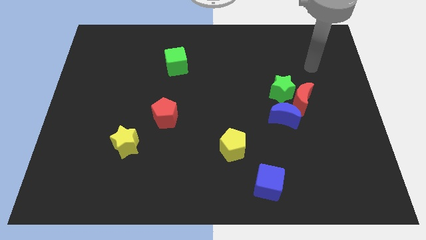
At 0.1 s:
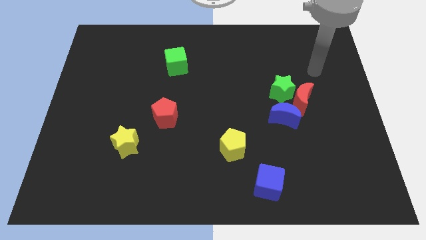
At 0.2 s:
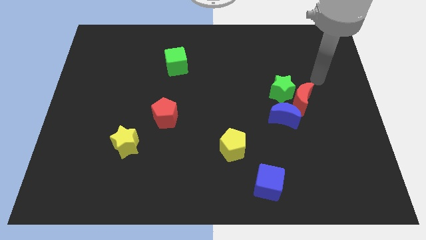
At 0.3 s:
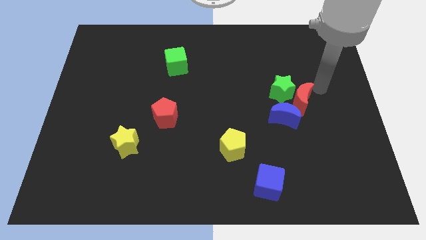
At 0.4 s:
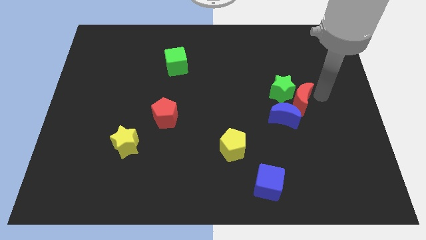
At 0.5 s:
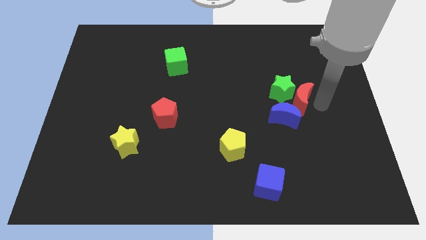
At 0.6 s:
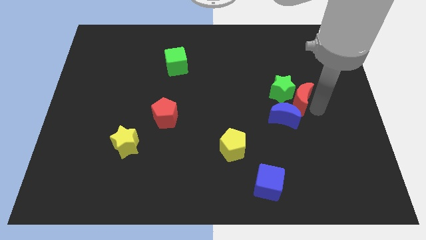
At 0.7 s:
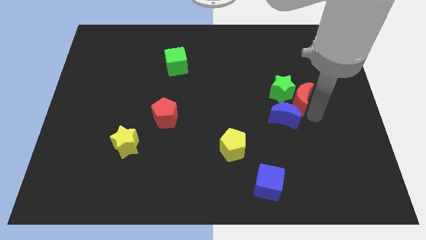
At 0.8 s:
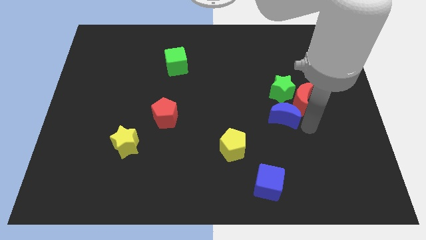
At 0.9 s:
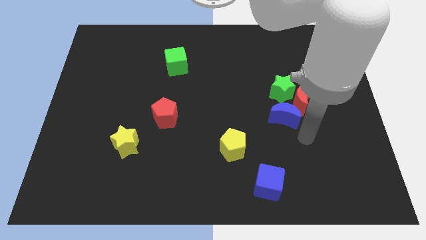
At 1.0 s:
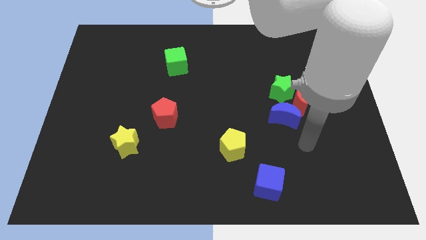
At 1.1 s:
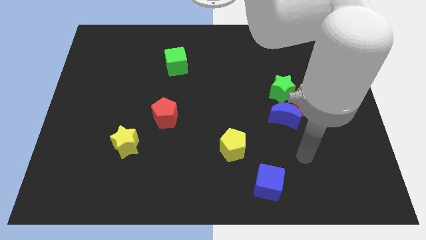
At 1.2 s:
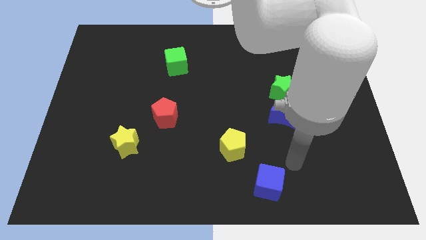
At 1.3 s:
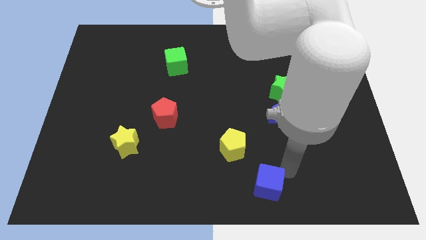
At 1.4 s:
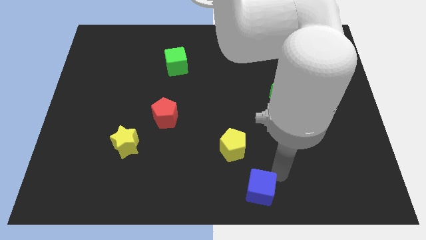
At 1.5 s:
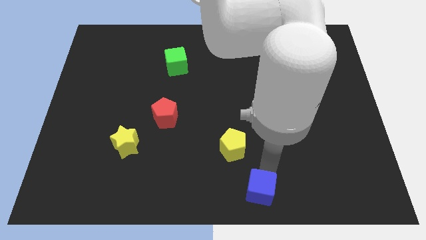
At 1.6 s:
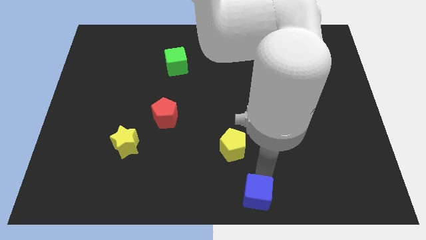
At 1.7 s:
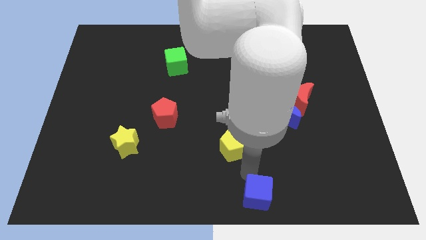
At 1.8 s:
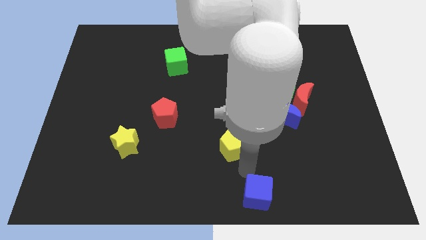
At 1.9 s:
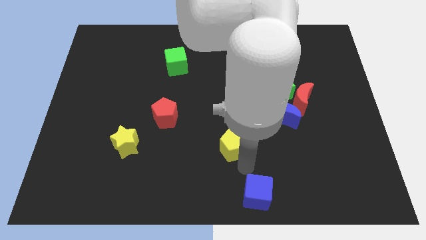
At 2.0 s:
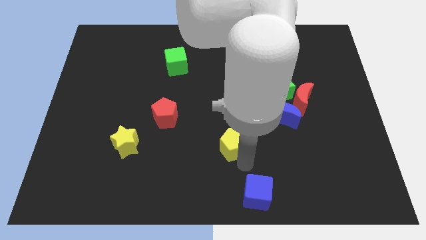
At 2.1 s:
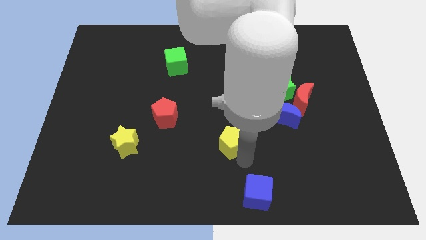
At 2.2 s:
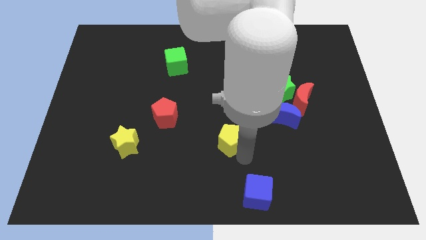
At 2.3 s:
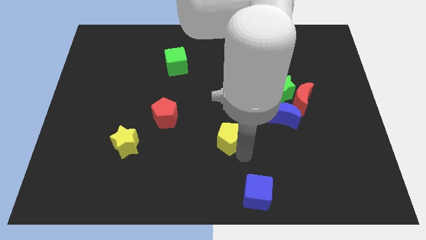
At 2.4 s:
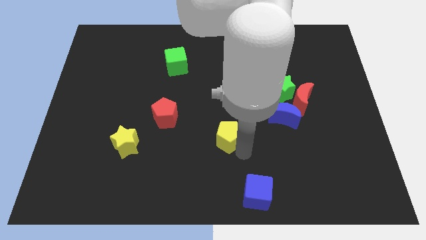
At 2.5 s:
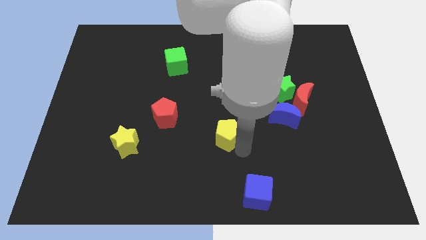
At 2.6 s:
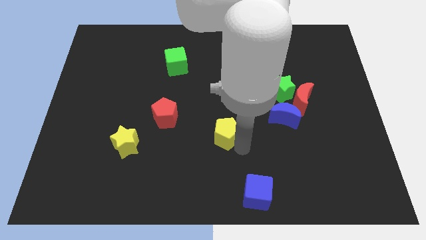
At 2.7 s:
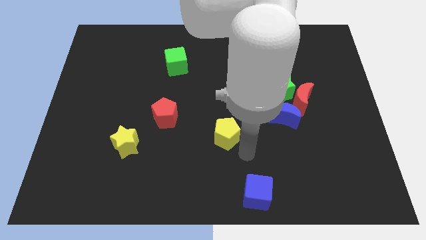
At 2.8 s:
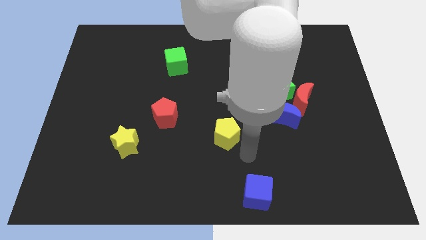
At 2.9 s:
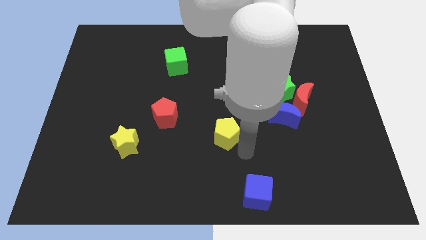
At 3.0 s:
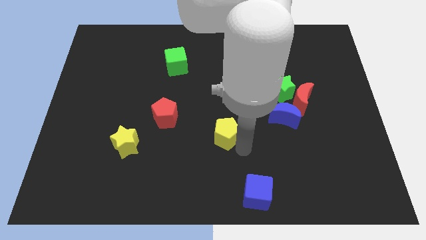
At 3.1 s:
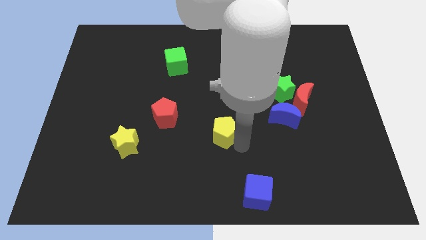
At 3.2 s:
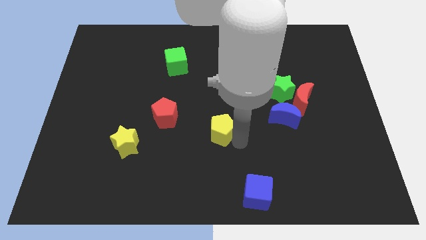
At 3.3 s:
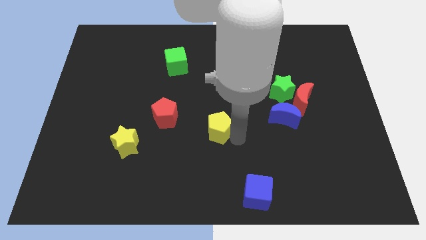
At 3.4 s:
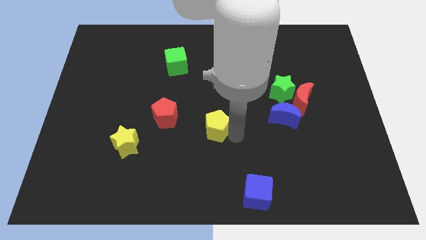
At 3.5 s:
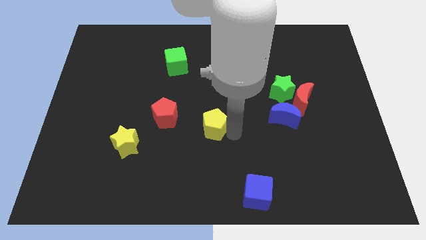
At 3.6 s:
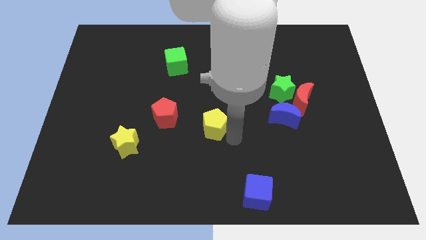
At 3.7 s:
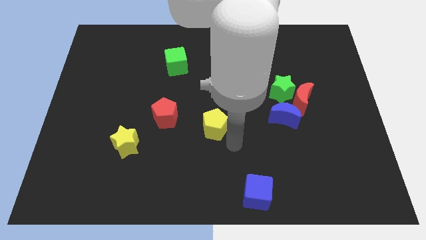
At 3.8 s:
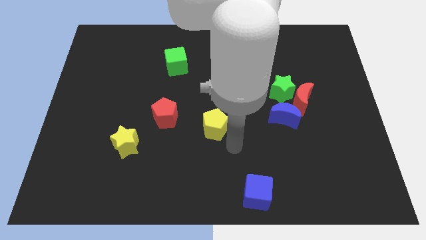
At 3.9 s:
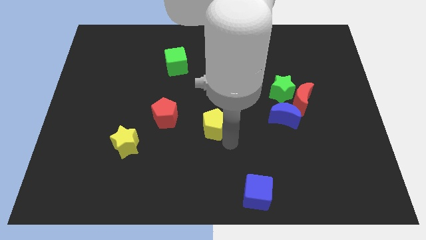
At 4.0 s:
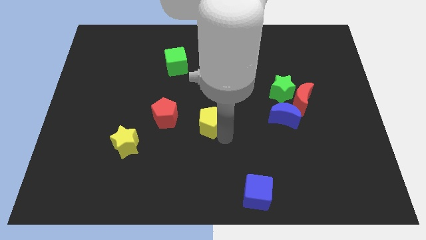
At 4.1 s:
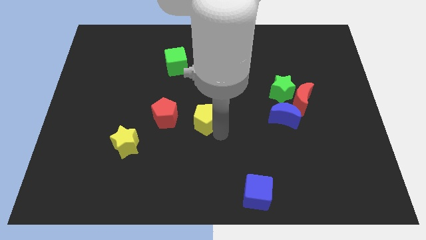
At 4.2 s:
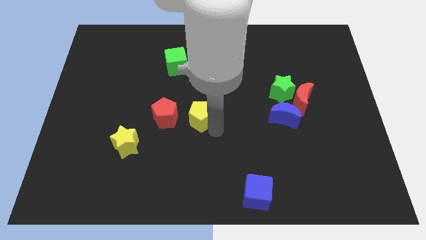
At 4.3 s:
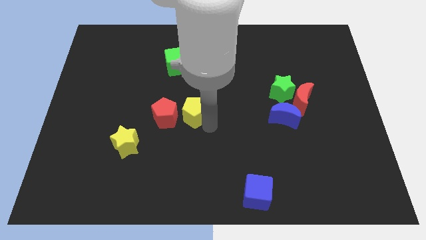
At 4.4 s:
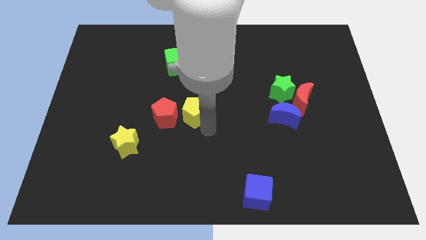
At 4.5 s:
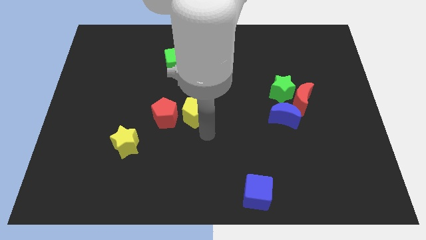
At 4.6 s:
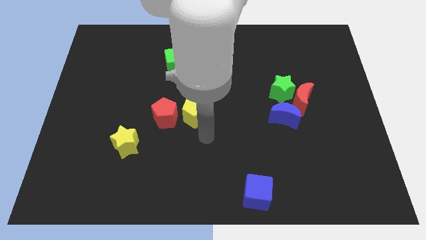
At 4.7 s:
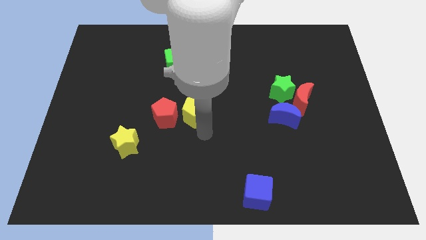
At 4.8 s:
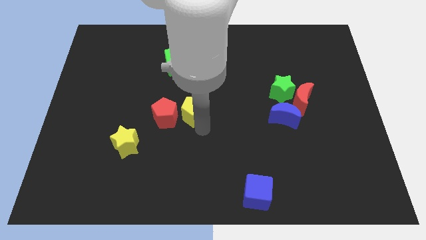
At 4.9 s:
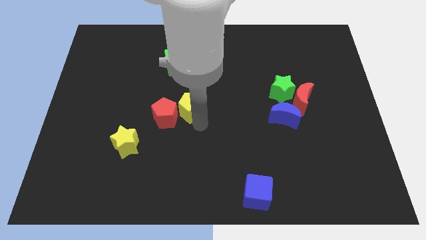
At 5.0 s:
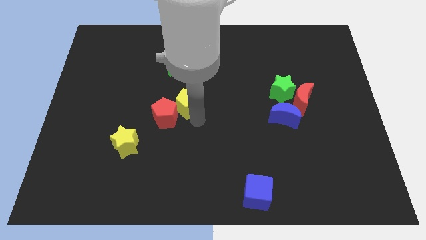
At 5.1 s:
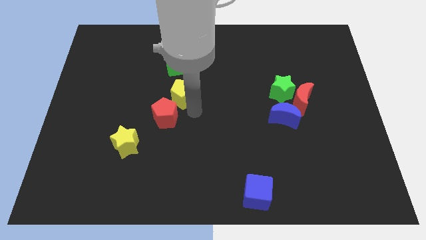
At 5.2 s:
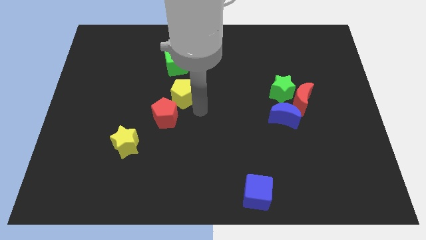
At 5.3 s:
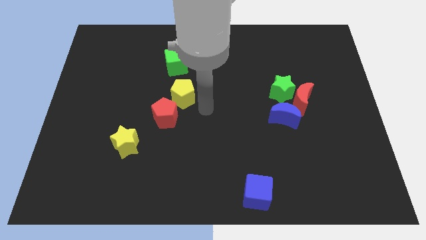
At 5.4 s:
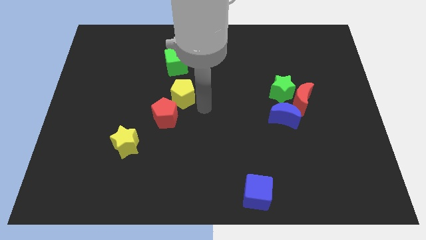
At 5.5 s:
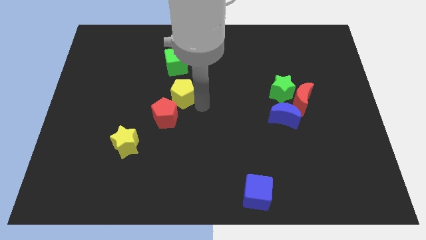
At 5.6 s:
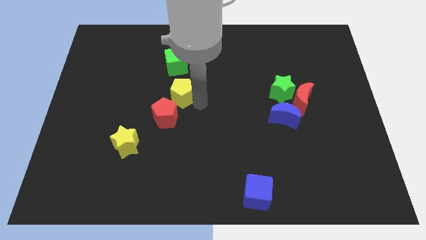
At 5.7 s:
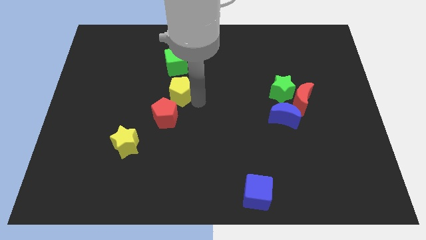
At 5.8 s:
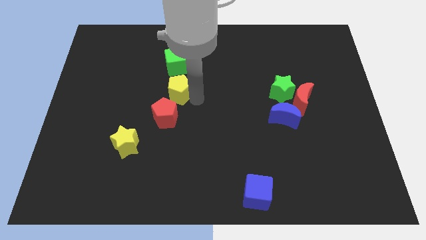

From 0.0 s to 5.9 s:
push the yellow pentagon diagonally up and to the left

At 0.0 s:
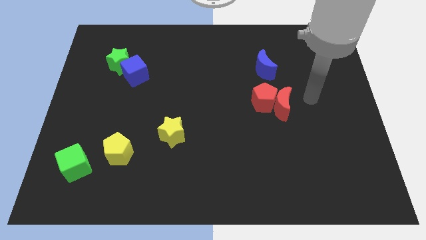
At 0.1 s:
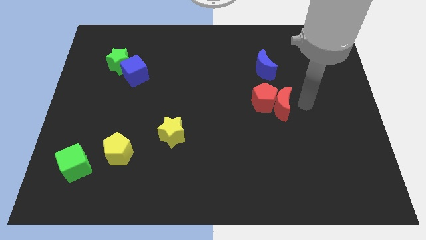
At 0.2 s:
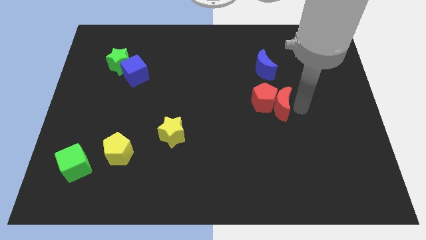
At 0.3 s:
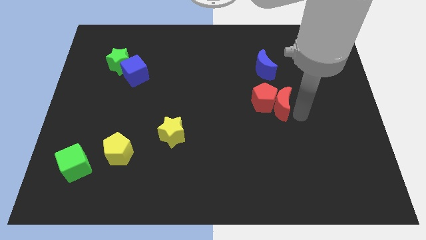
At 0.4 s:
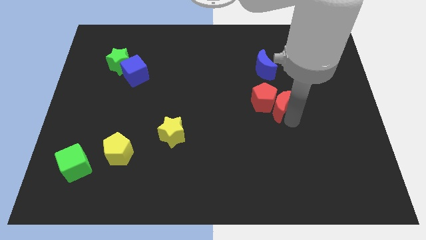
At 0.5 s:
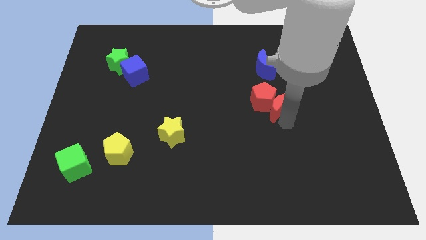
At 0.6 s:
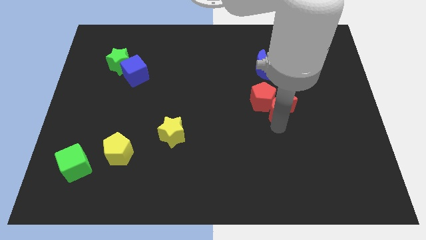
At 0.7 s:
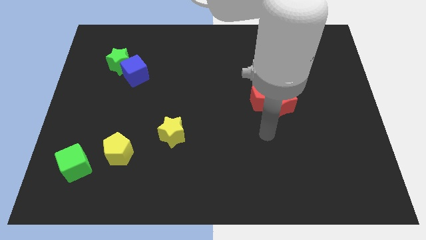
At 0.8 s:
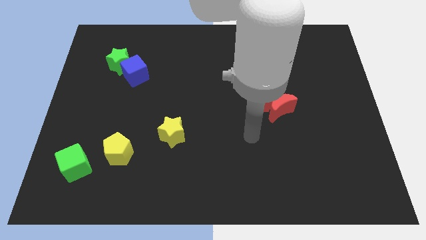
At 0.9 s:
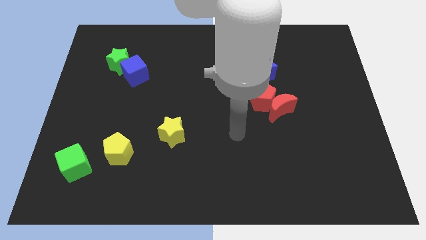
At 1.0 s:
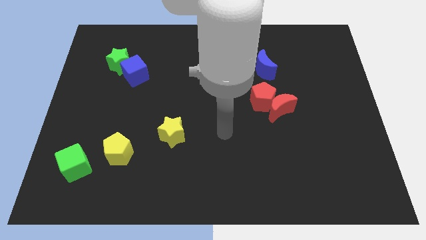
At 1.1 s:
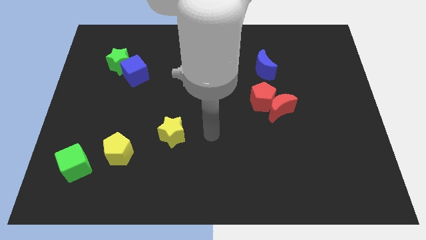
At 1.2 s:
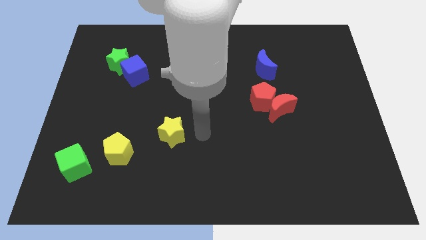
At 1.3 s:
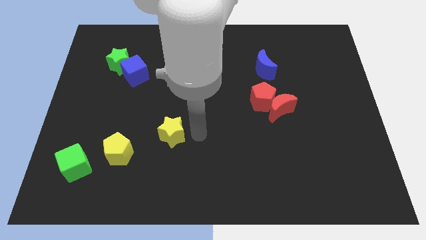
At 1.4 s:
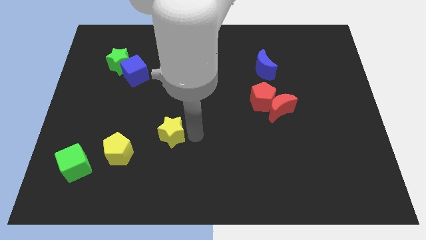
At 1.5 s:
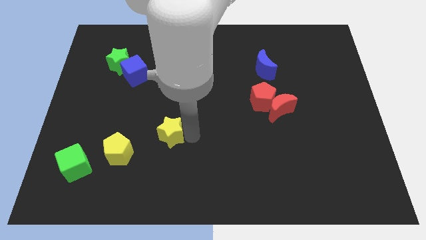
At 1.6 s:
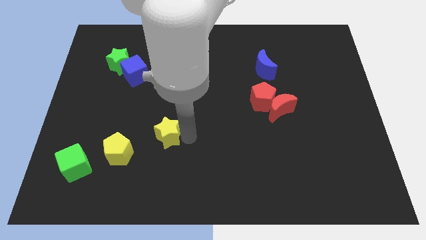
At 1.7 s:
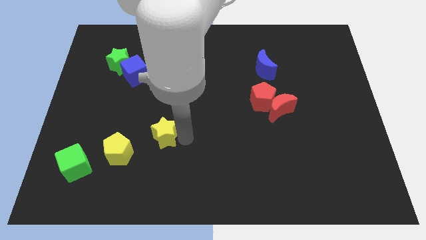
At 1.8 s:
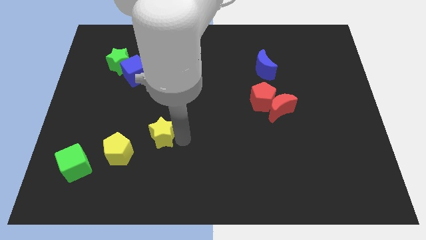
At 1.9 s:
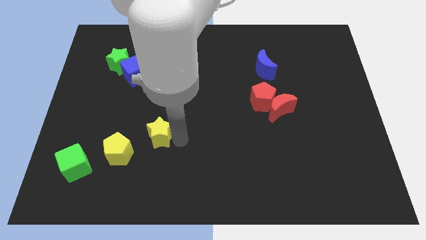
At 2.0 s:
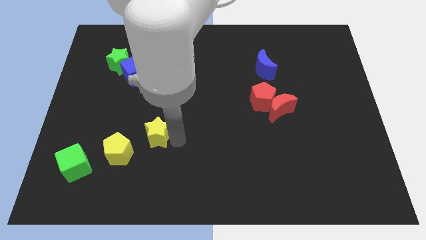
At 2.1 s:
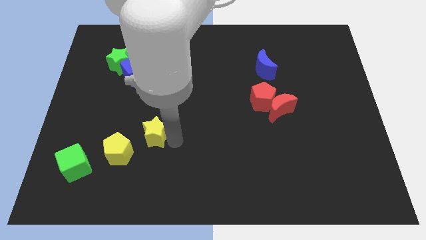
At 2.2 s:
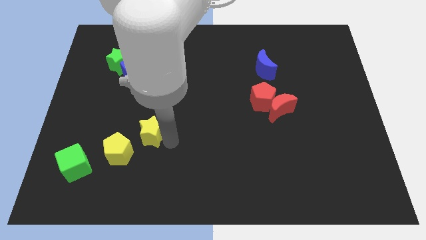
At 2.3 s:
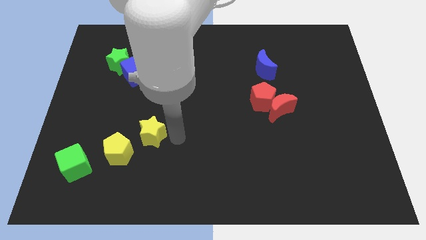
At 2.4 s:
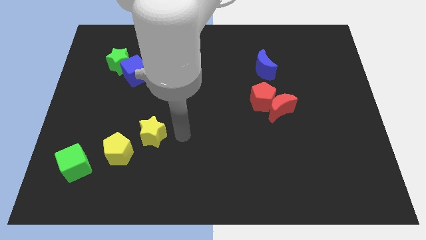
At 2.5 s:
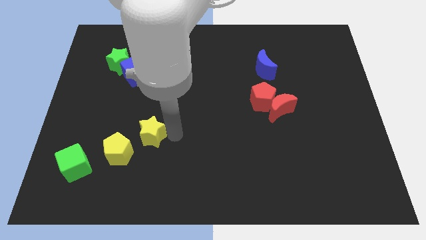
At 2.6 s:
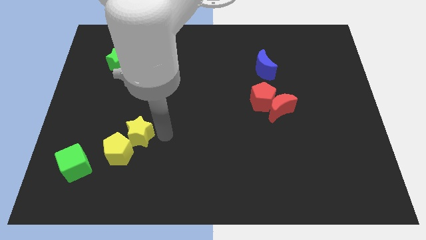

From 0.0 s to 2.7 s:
push the yellow star a bit to the left
